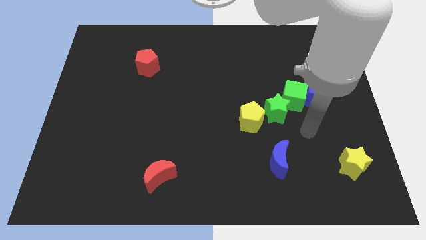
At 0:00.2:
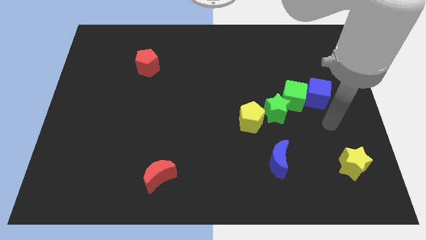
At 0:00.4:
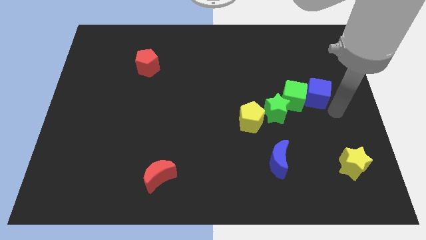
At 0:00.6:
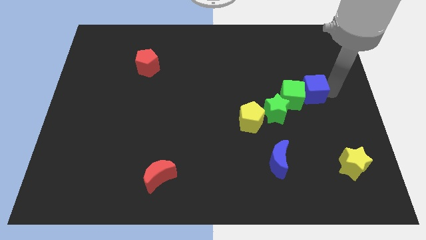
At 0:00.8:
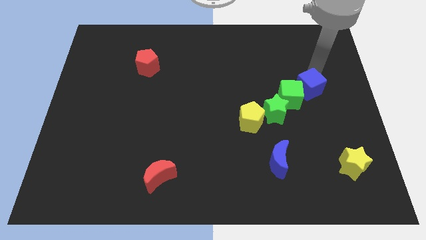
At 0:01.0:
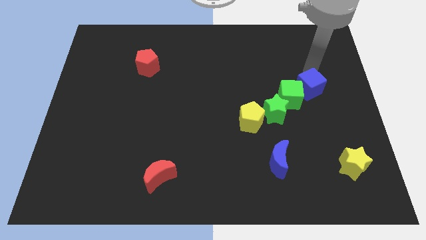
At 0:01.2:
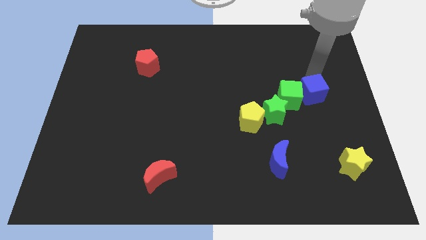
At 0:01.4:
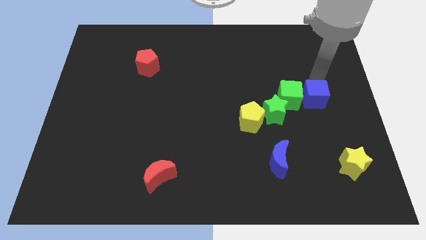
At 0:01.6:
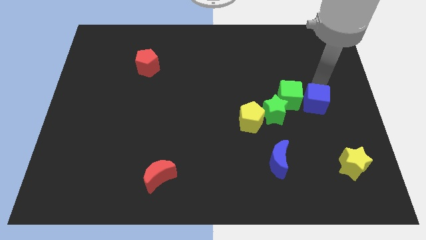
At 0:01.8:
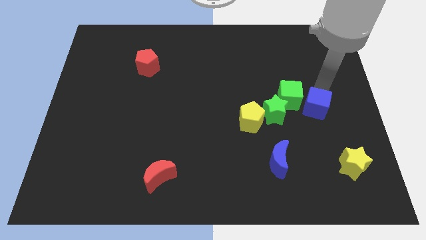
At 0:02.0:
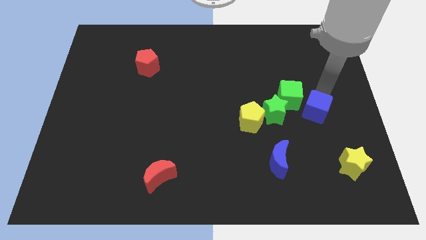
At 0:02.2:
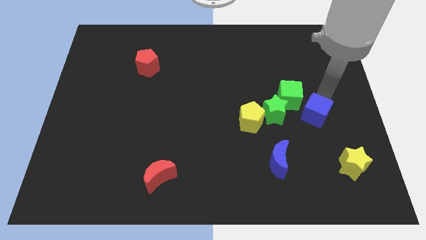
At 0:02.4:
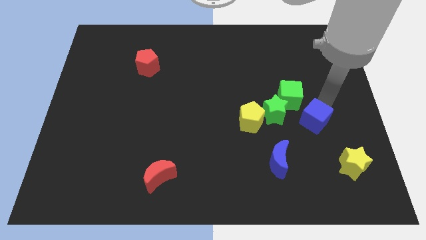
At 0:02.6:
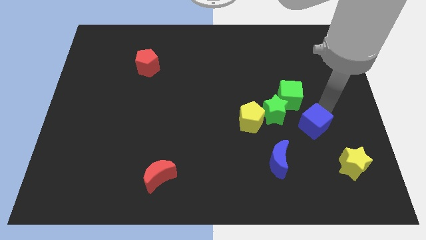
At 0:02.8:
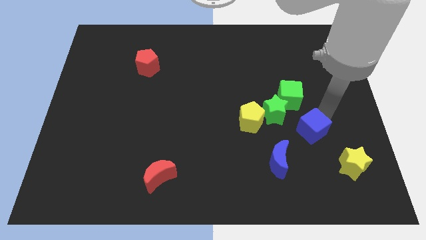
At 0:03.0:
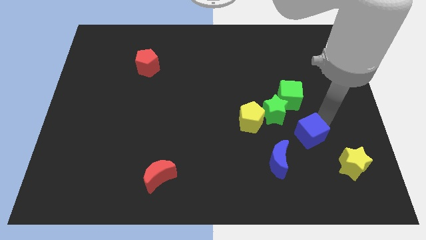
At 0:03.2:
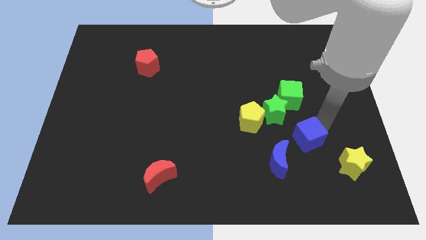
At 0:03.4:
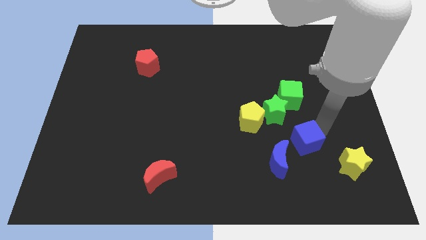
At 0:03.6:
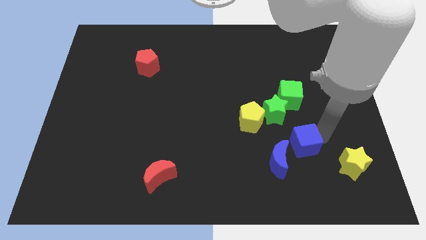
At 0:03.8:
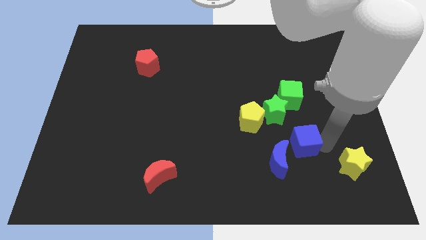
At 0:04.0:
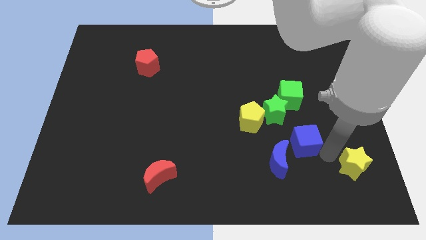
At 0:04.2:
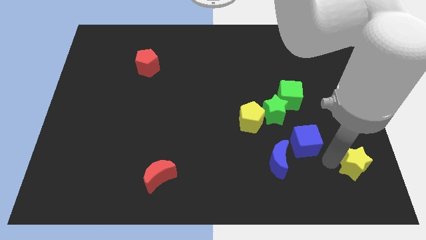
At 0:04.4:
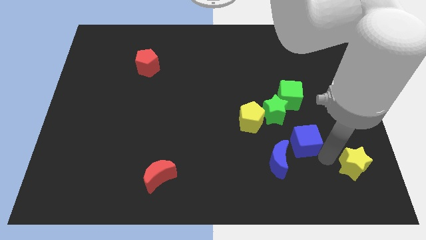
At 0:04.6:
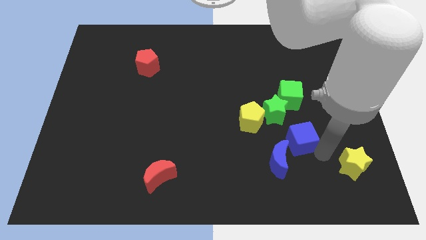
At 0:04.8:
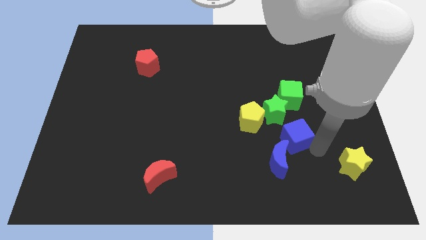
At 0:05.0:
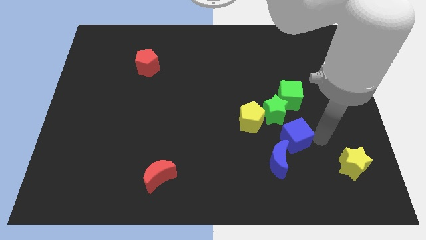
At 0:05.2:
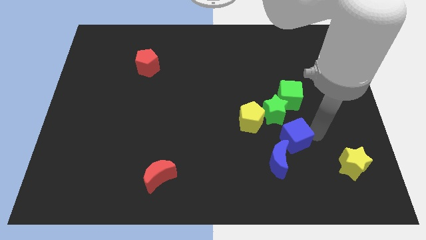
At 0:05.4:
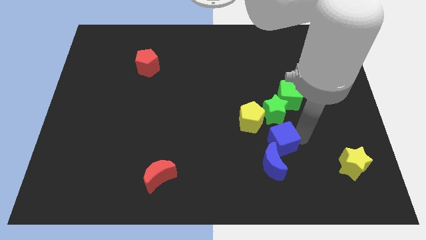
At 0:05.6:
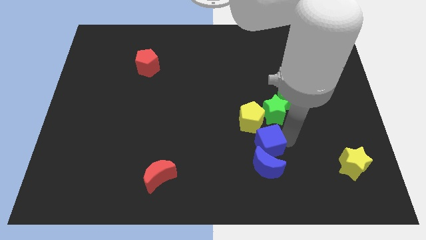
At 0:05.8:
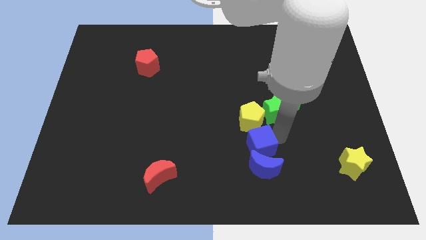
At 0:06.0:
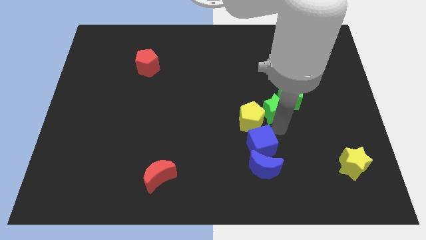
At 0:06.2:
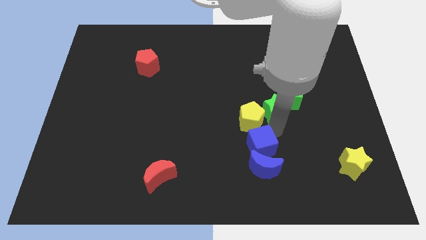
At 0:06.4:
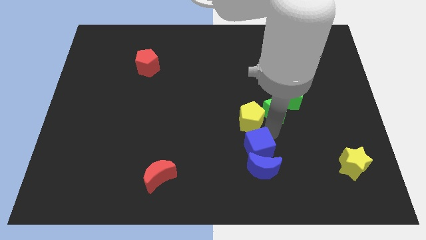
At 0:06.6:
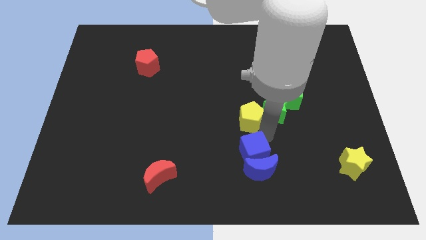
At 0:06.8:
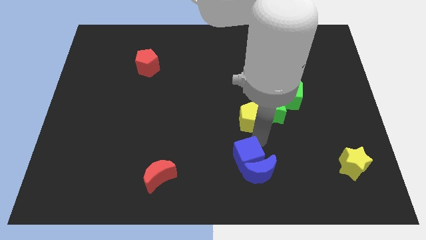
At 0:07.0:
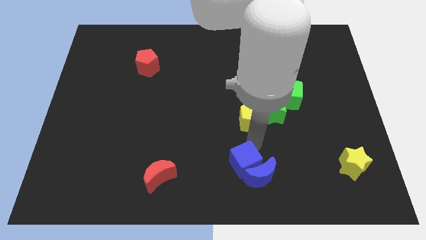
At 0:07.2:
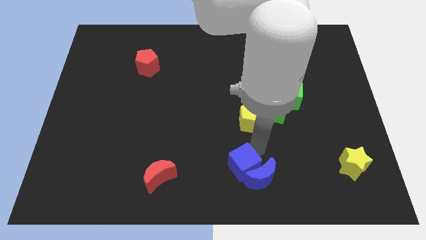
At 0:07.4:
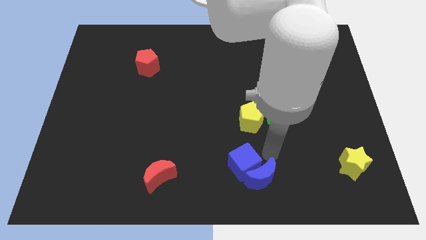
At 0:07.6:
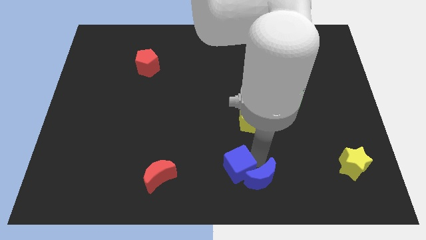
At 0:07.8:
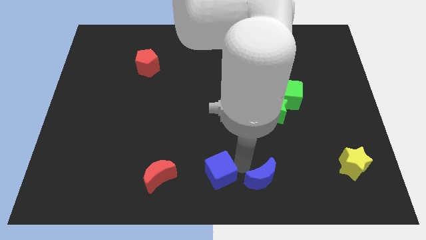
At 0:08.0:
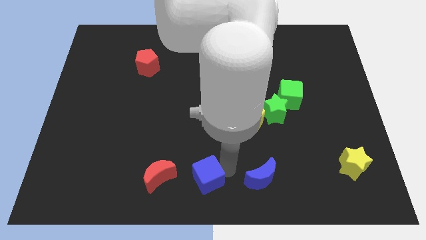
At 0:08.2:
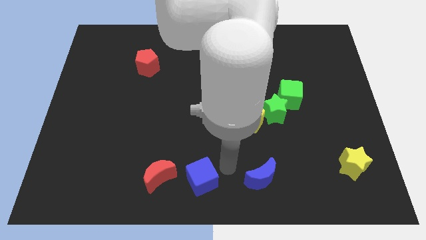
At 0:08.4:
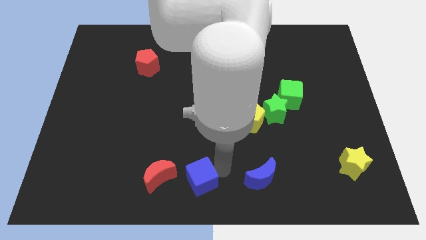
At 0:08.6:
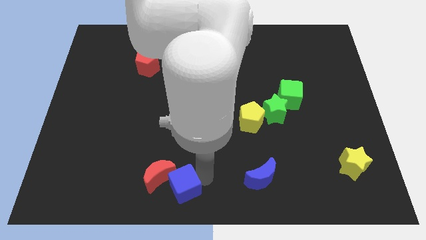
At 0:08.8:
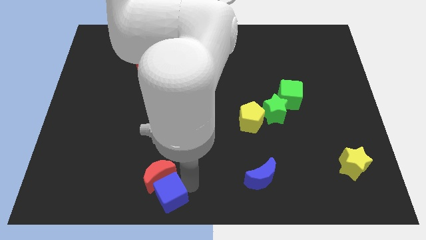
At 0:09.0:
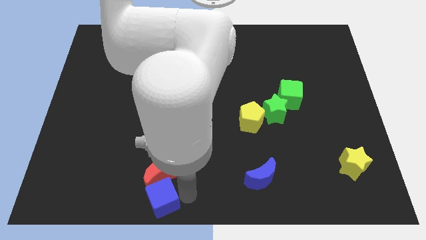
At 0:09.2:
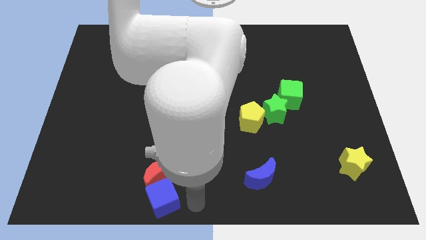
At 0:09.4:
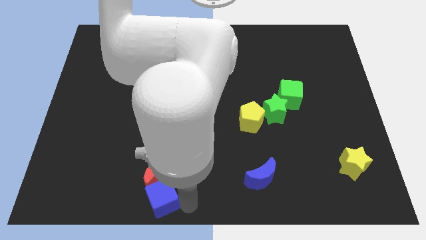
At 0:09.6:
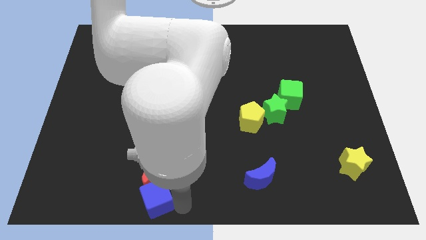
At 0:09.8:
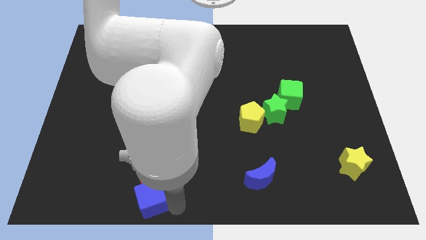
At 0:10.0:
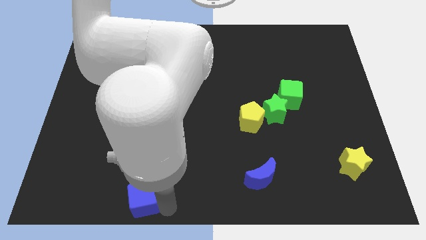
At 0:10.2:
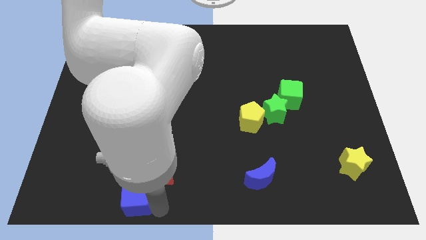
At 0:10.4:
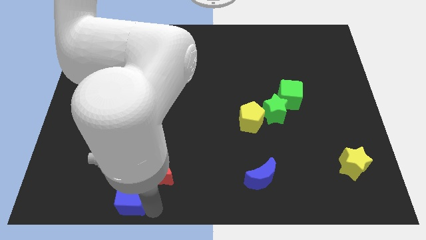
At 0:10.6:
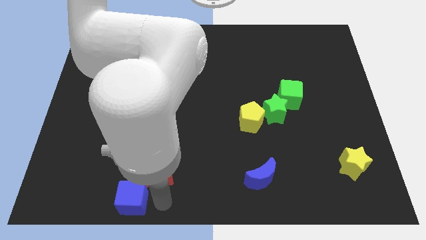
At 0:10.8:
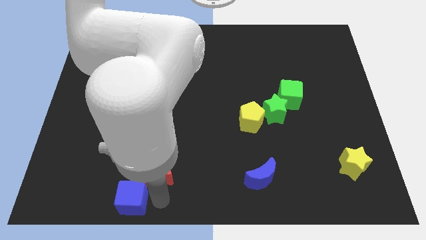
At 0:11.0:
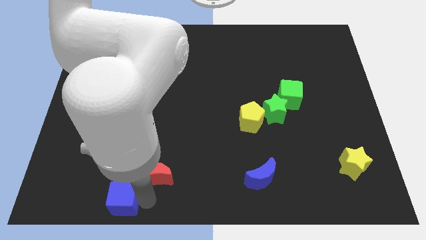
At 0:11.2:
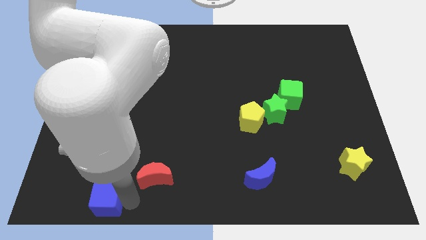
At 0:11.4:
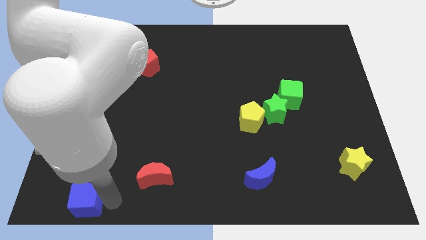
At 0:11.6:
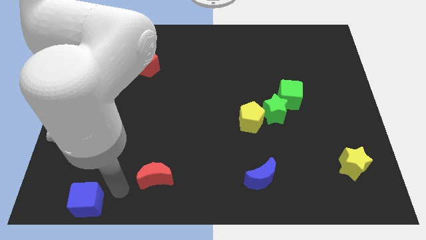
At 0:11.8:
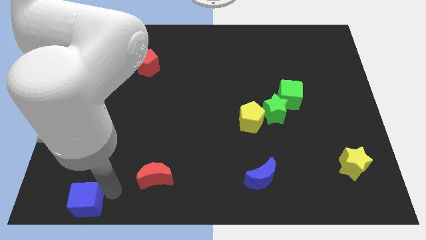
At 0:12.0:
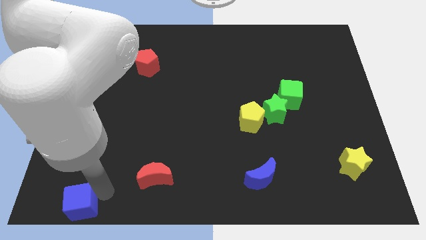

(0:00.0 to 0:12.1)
push the blue cube to the bottom left corner
